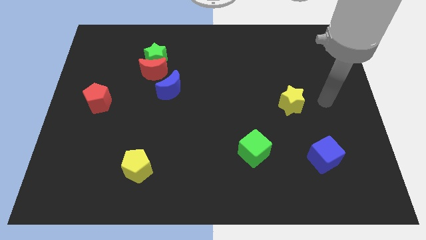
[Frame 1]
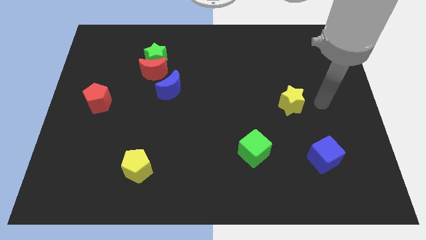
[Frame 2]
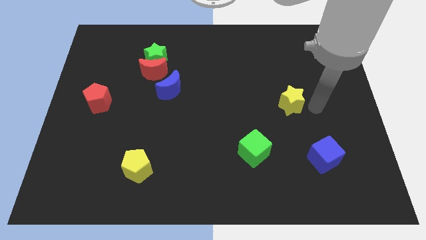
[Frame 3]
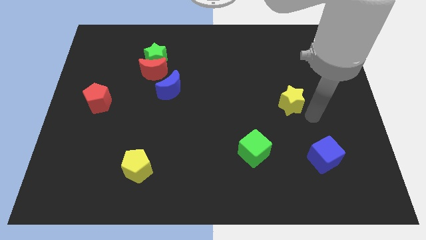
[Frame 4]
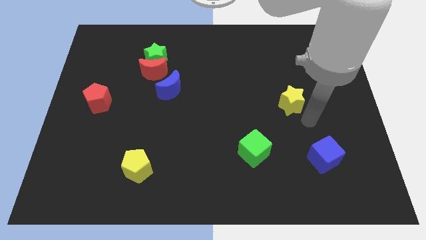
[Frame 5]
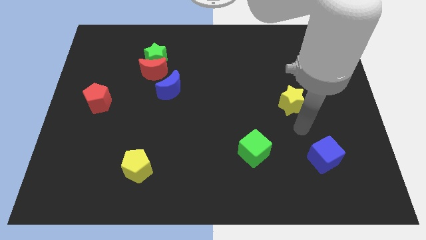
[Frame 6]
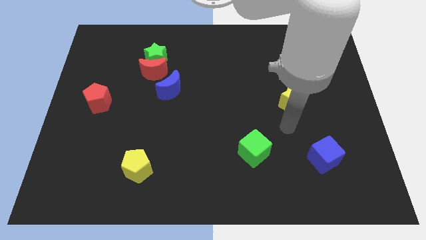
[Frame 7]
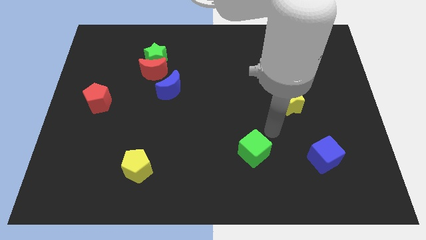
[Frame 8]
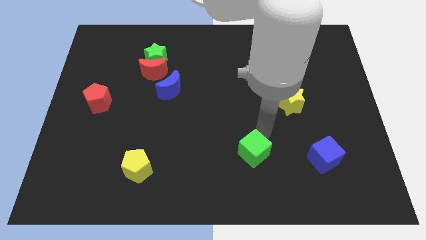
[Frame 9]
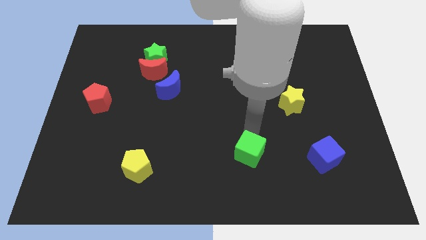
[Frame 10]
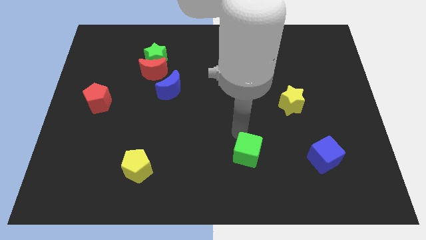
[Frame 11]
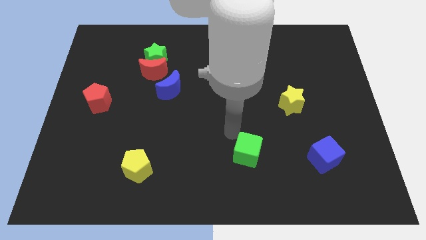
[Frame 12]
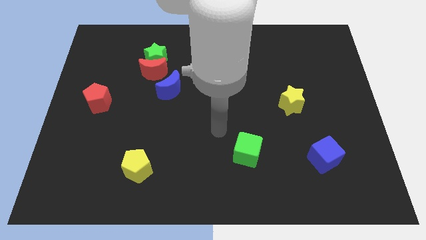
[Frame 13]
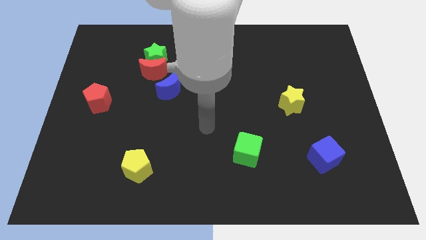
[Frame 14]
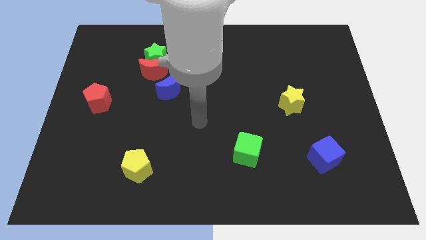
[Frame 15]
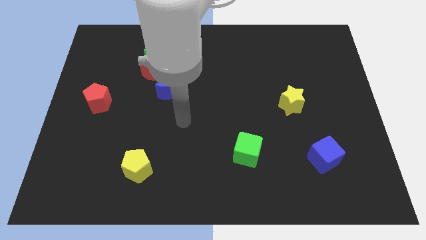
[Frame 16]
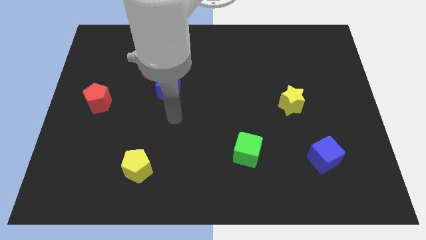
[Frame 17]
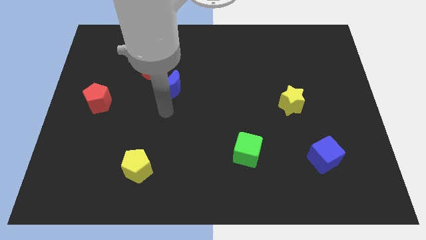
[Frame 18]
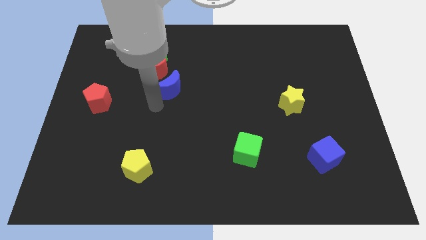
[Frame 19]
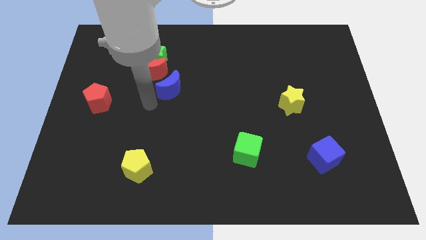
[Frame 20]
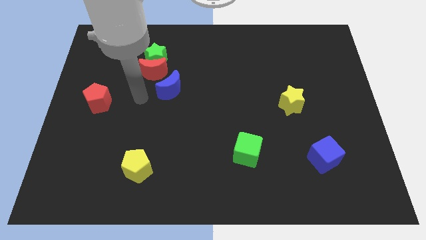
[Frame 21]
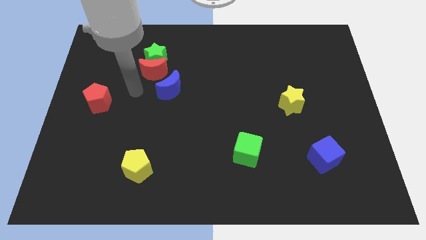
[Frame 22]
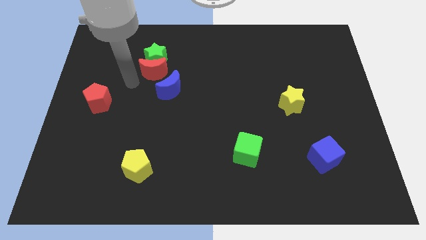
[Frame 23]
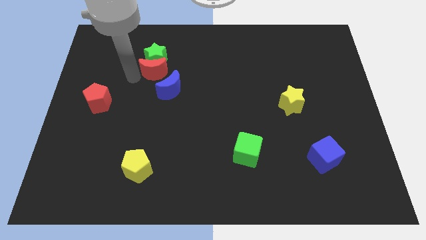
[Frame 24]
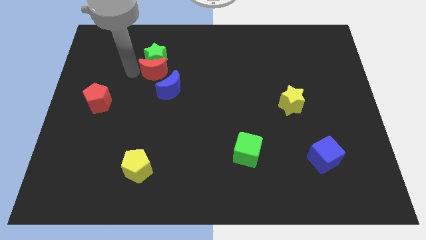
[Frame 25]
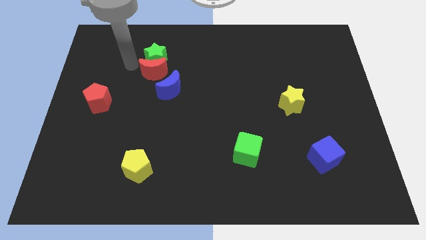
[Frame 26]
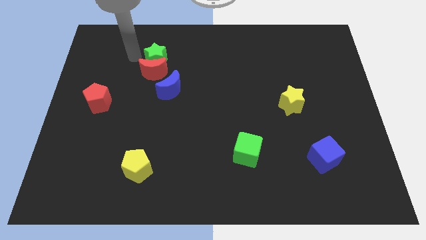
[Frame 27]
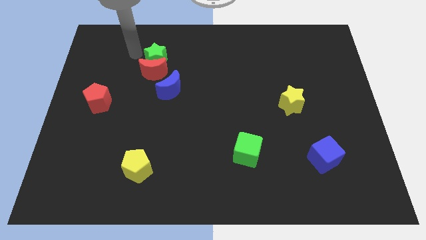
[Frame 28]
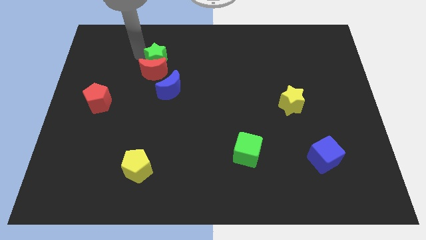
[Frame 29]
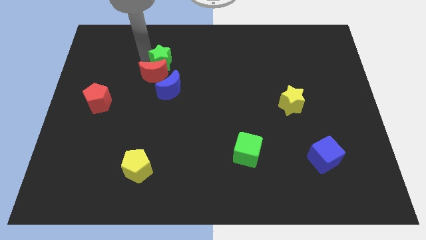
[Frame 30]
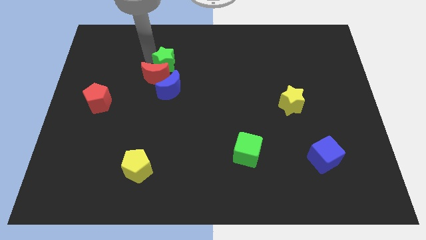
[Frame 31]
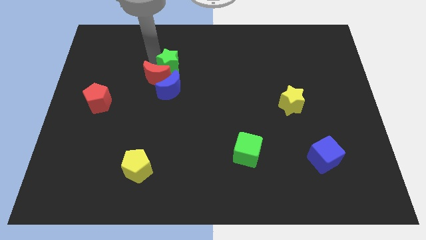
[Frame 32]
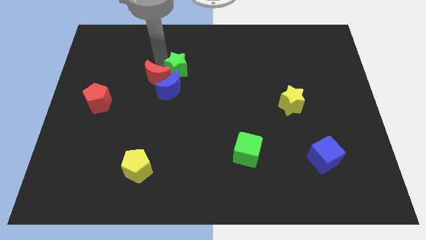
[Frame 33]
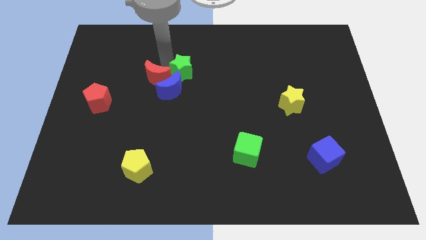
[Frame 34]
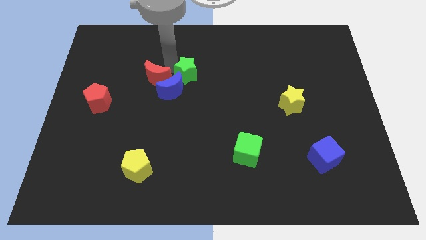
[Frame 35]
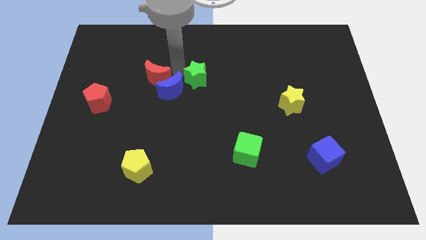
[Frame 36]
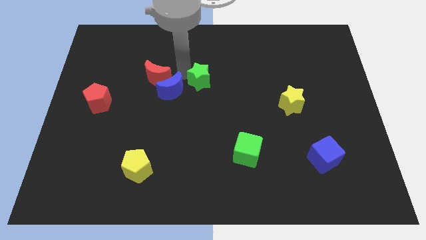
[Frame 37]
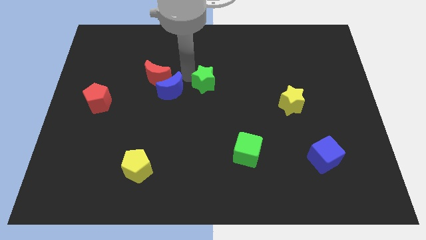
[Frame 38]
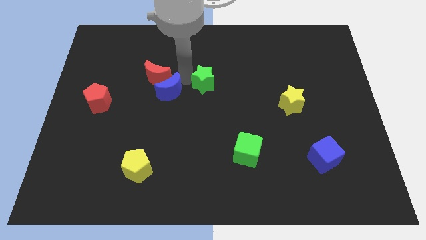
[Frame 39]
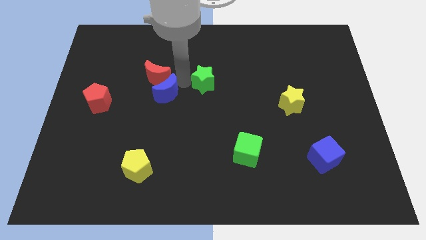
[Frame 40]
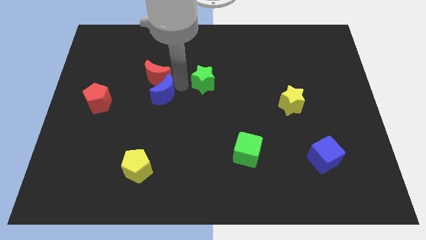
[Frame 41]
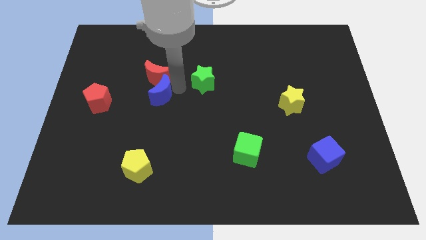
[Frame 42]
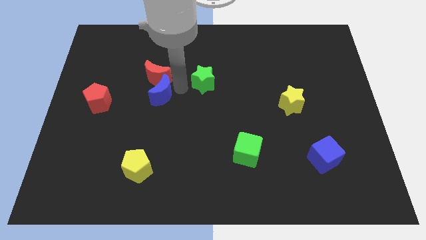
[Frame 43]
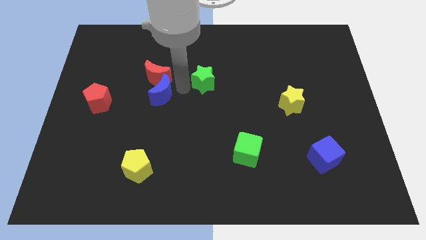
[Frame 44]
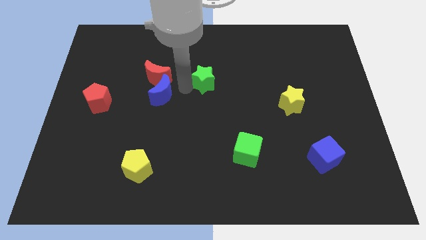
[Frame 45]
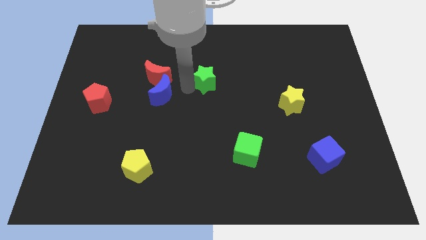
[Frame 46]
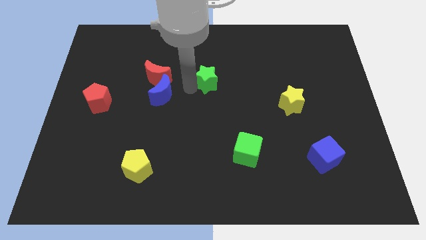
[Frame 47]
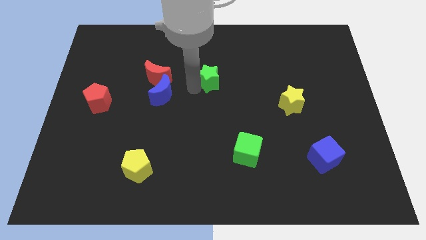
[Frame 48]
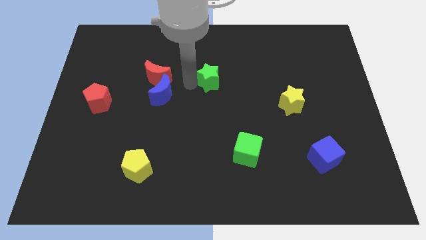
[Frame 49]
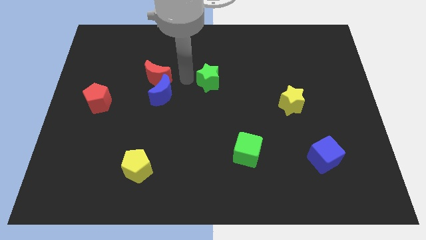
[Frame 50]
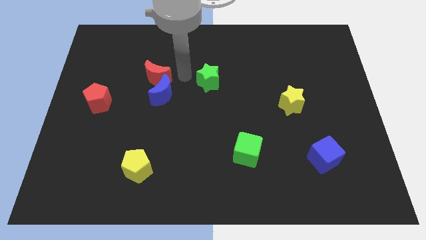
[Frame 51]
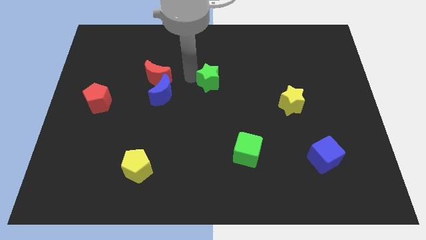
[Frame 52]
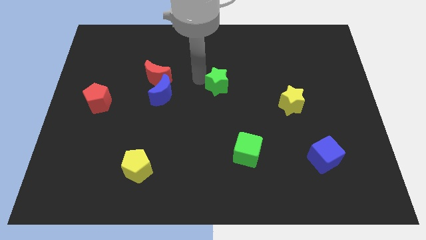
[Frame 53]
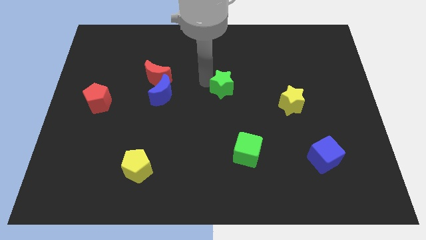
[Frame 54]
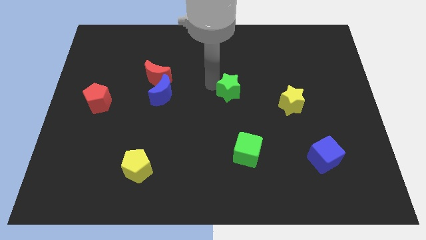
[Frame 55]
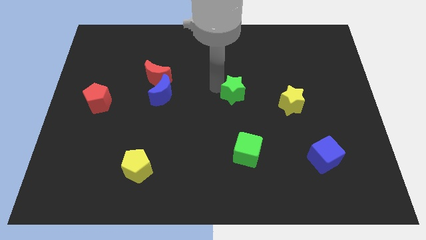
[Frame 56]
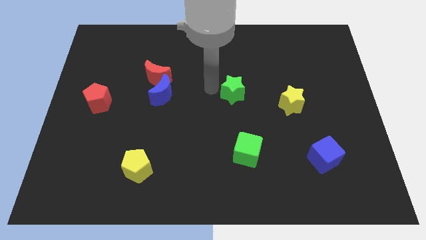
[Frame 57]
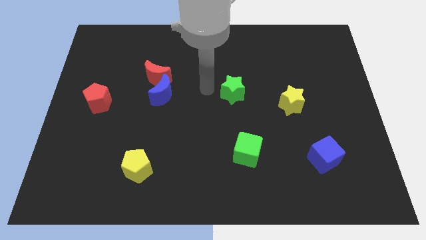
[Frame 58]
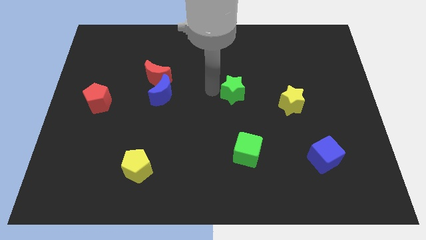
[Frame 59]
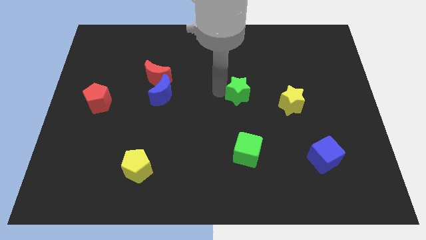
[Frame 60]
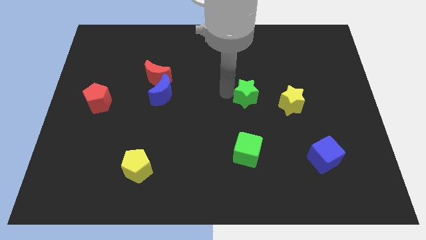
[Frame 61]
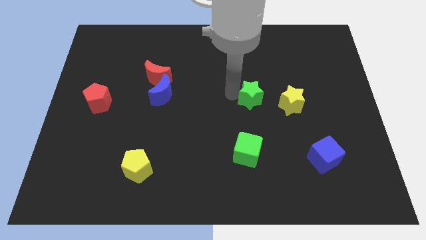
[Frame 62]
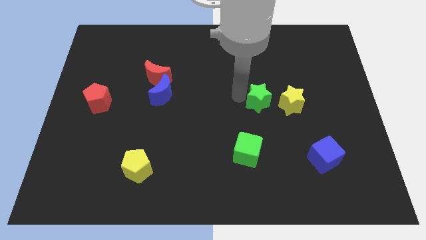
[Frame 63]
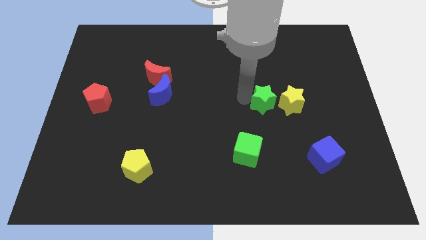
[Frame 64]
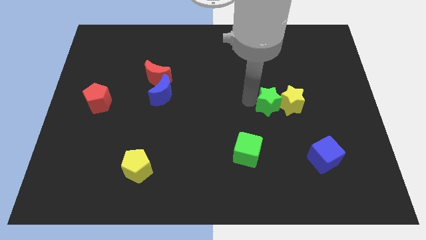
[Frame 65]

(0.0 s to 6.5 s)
push the green star to the yellow star

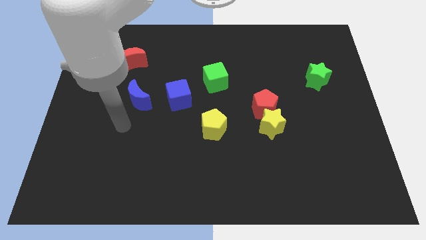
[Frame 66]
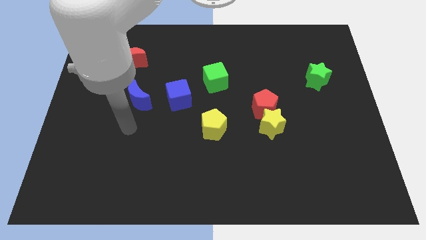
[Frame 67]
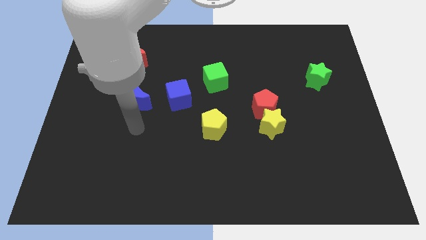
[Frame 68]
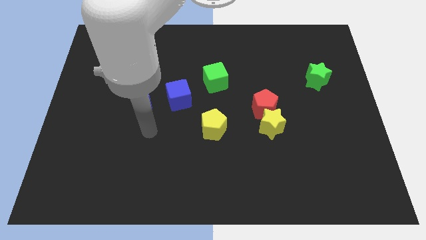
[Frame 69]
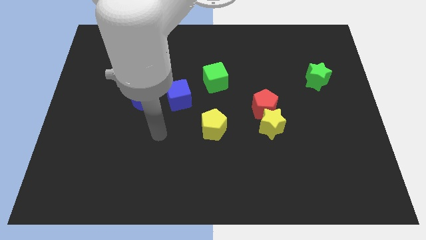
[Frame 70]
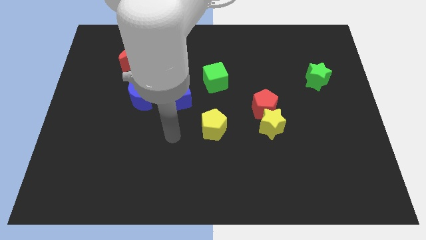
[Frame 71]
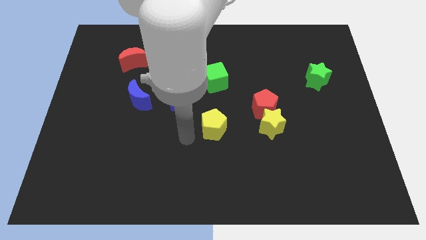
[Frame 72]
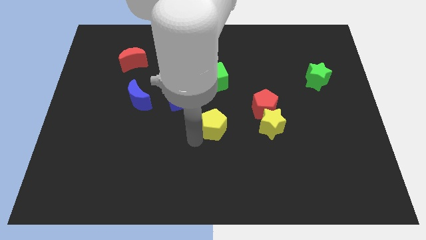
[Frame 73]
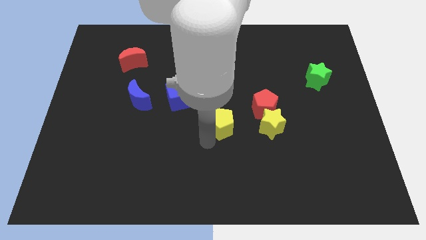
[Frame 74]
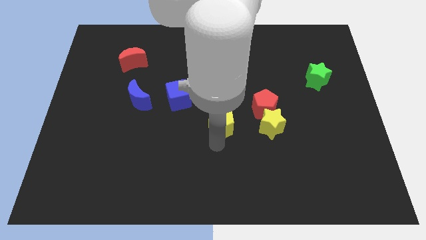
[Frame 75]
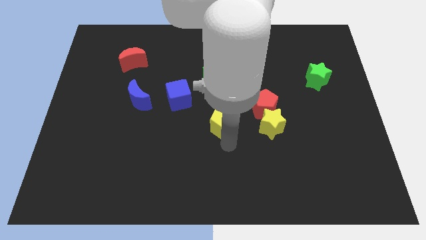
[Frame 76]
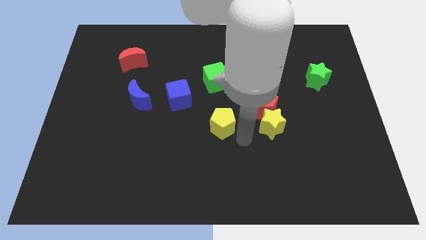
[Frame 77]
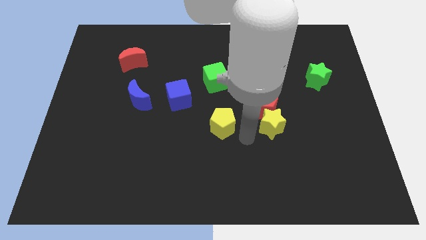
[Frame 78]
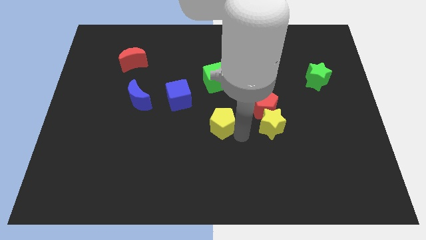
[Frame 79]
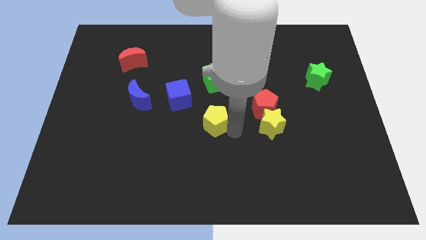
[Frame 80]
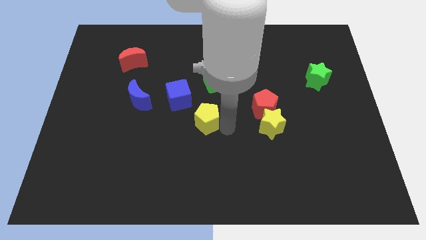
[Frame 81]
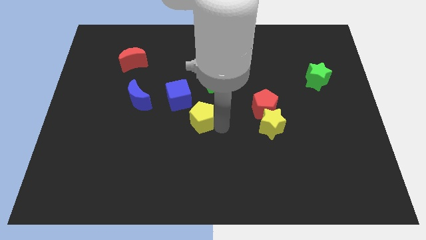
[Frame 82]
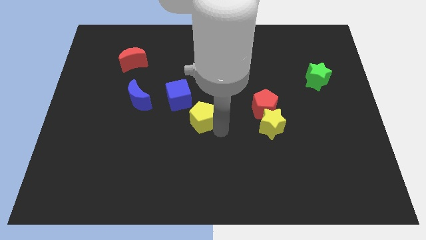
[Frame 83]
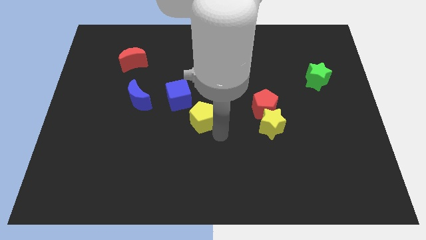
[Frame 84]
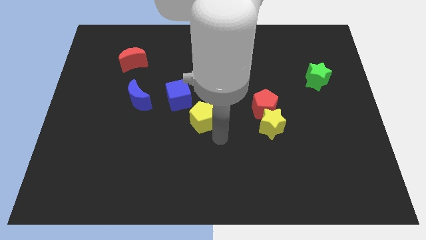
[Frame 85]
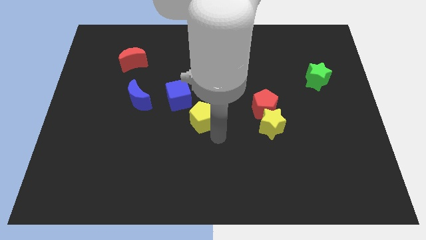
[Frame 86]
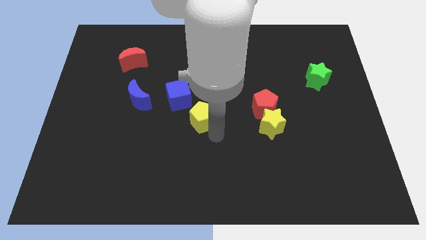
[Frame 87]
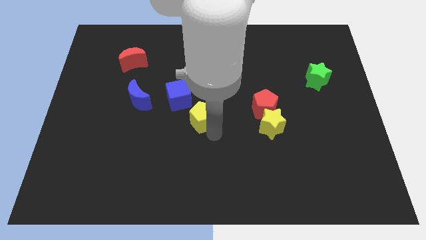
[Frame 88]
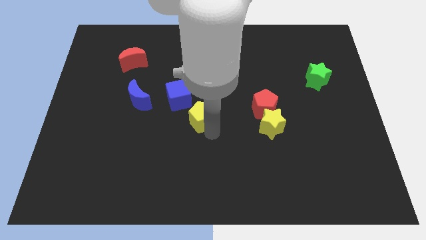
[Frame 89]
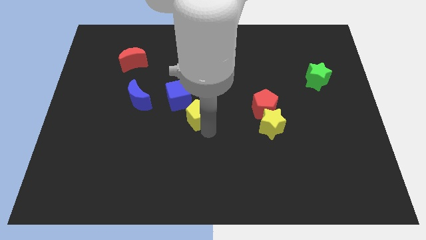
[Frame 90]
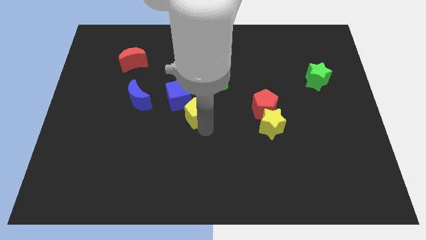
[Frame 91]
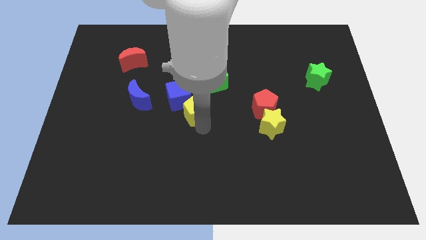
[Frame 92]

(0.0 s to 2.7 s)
put the yellow pentagon close to the blue cube
